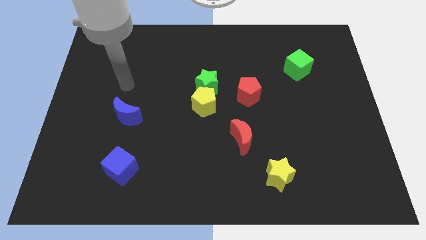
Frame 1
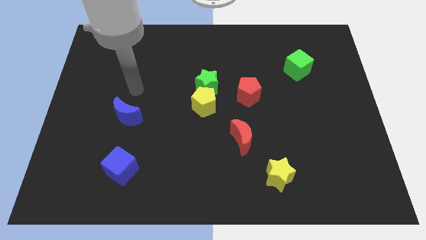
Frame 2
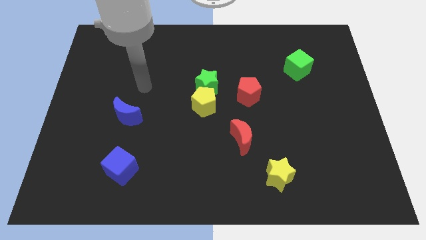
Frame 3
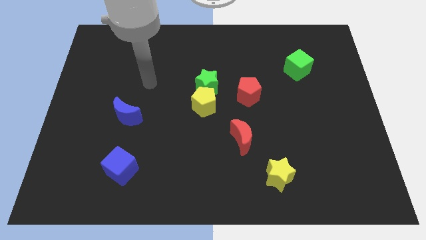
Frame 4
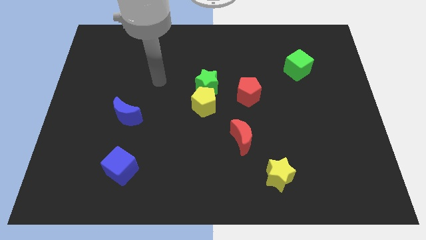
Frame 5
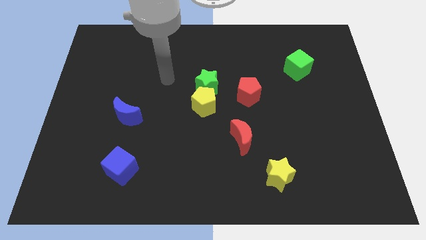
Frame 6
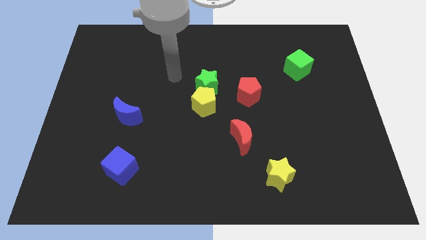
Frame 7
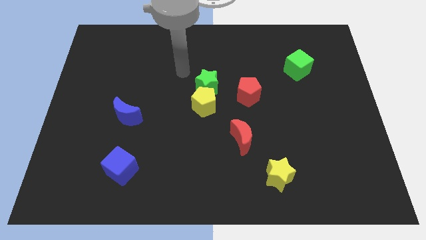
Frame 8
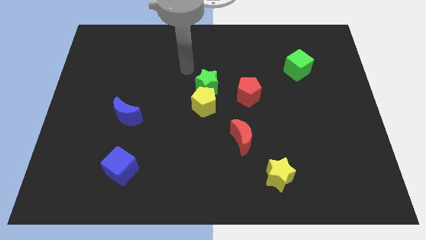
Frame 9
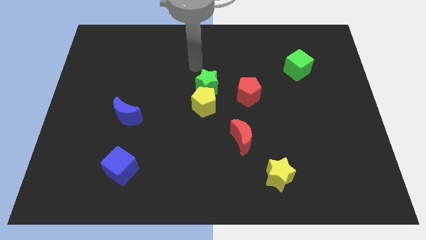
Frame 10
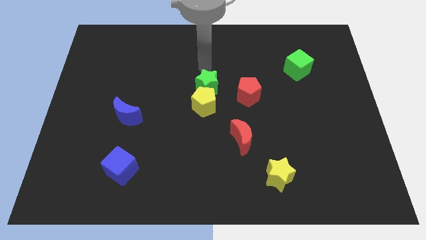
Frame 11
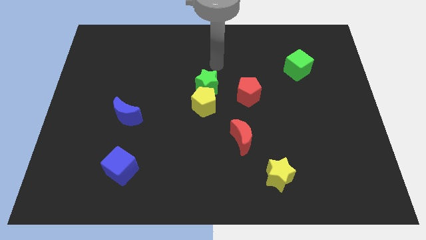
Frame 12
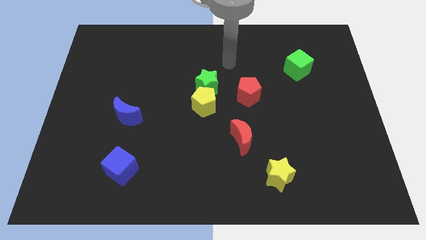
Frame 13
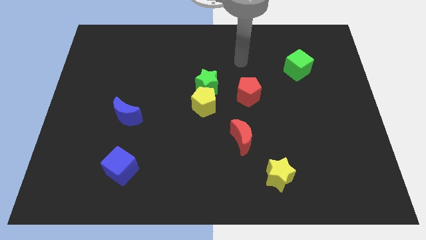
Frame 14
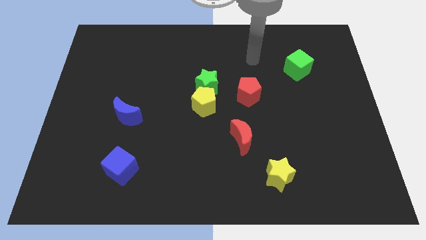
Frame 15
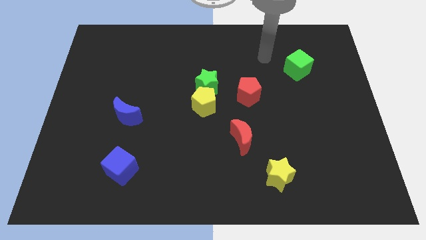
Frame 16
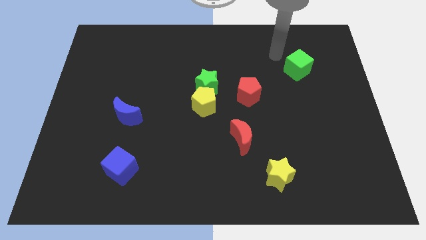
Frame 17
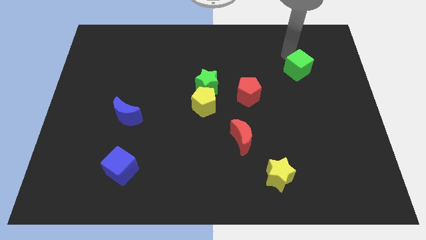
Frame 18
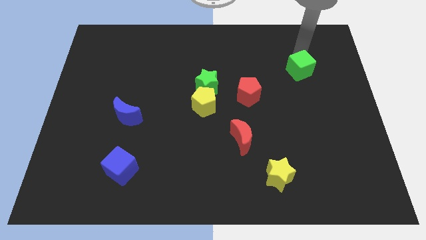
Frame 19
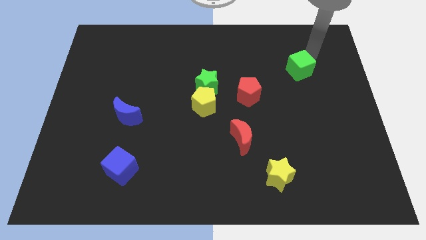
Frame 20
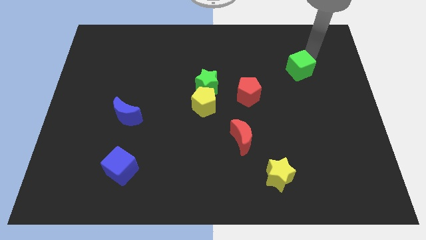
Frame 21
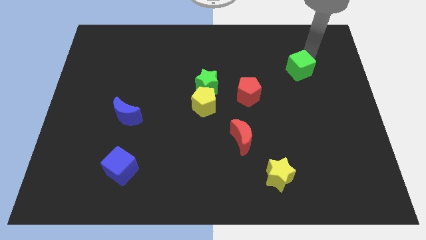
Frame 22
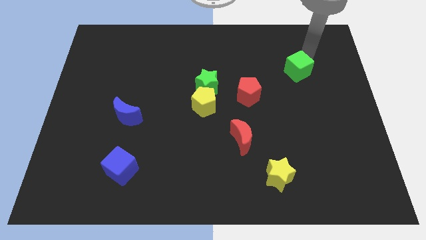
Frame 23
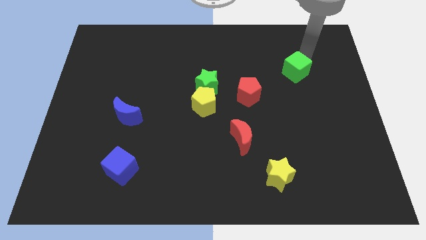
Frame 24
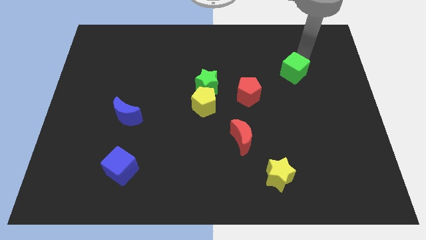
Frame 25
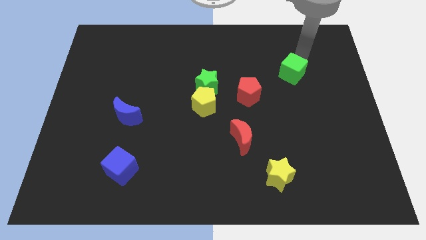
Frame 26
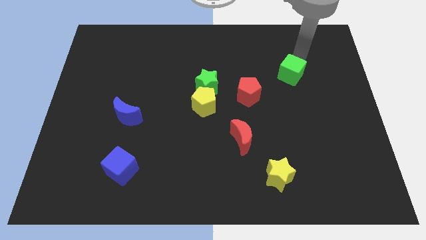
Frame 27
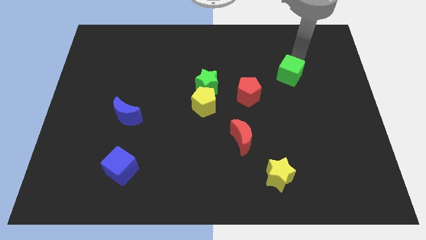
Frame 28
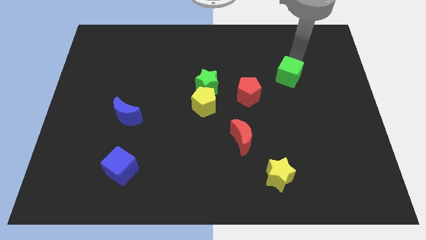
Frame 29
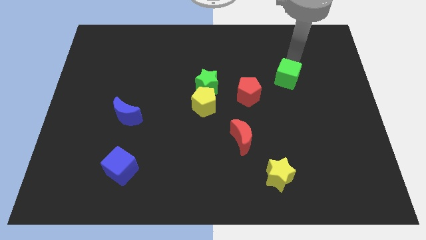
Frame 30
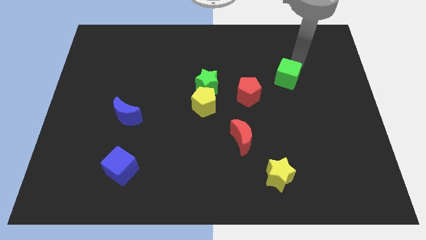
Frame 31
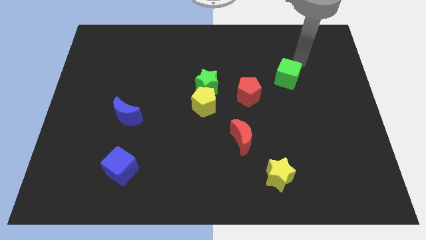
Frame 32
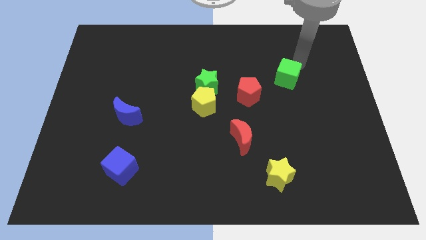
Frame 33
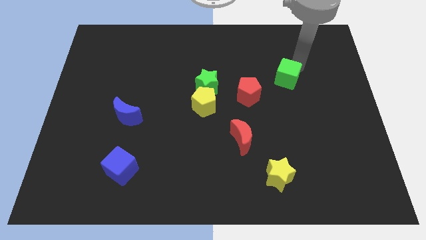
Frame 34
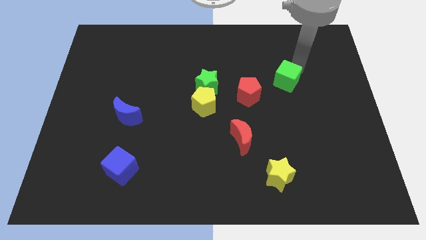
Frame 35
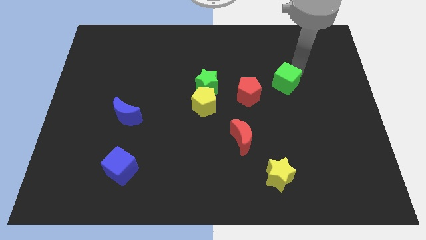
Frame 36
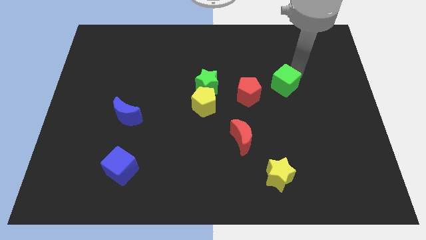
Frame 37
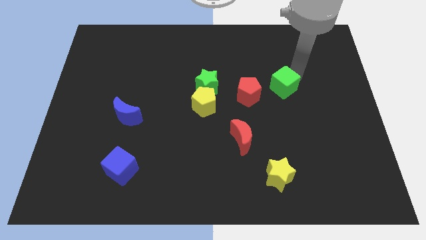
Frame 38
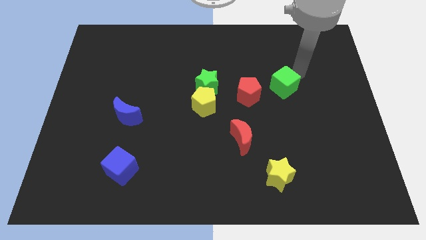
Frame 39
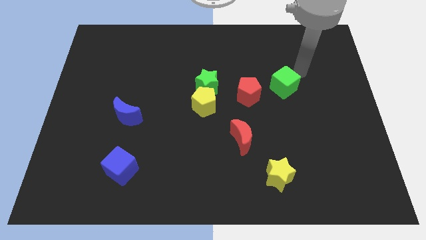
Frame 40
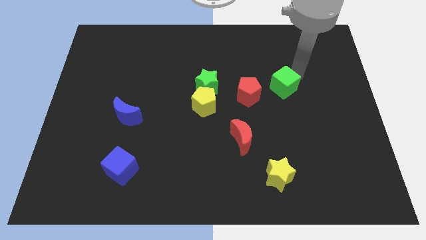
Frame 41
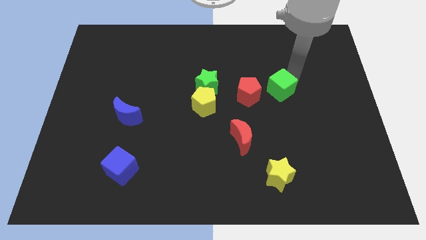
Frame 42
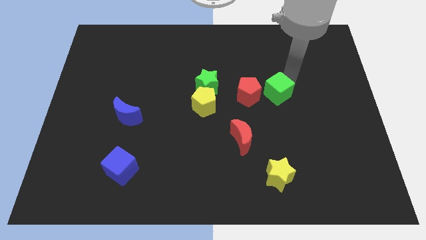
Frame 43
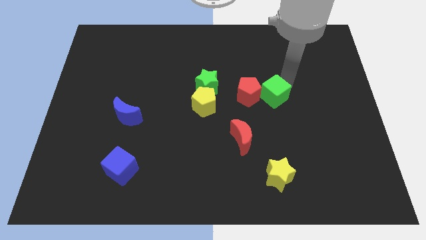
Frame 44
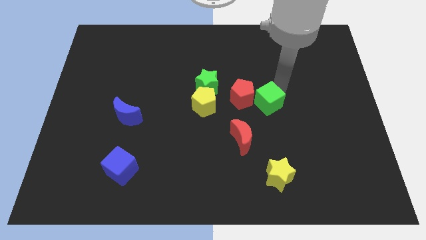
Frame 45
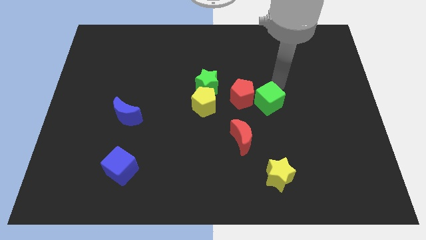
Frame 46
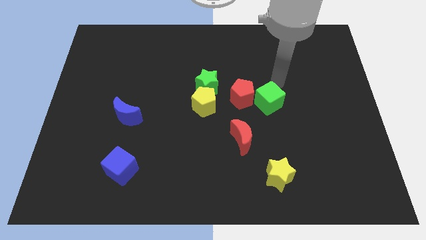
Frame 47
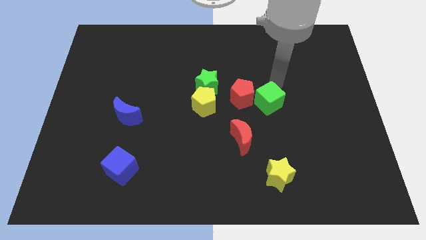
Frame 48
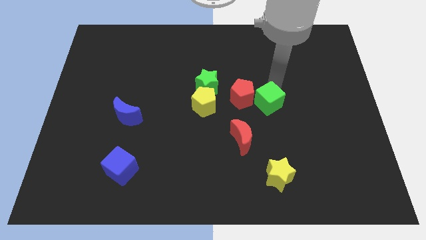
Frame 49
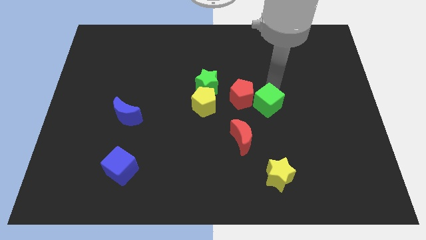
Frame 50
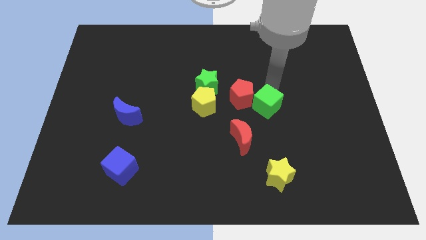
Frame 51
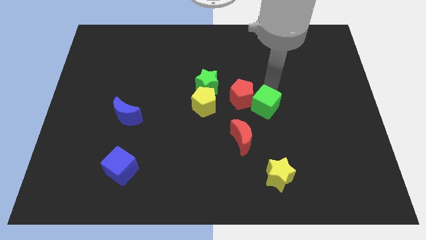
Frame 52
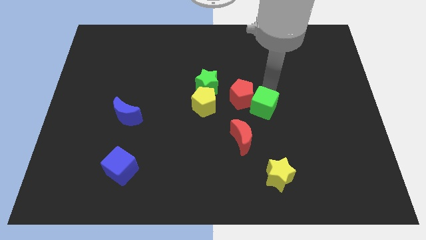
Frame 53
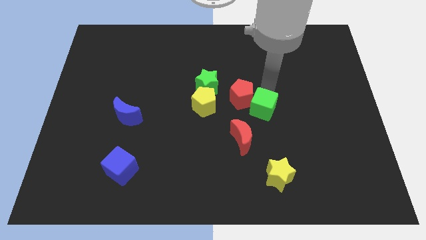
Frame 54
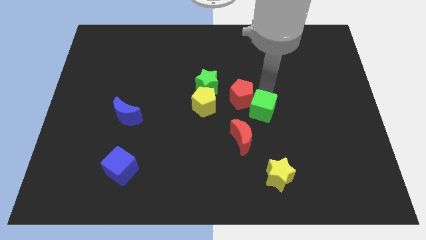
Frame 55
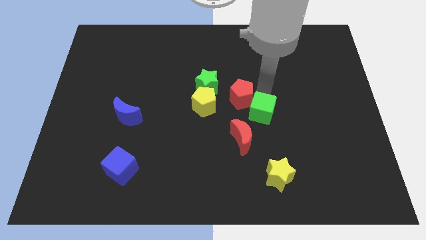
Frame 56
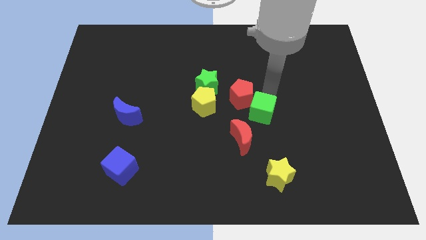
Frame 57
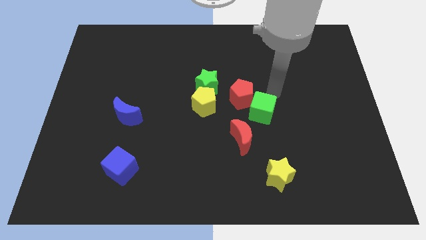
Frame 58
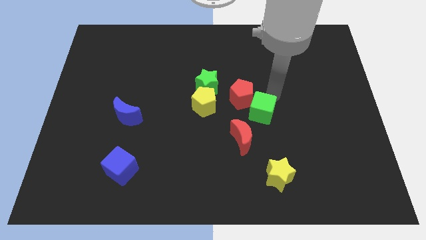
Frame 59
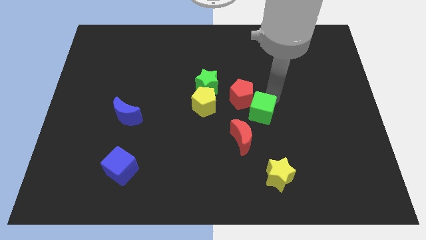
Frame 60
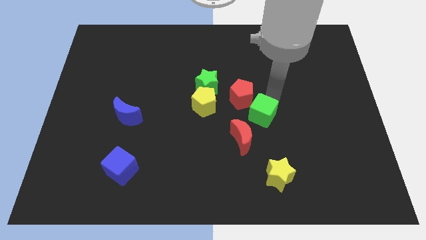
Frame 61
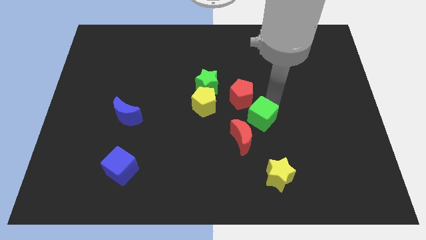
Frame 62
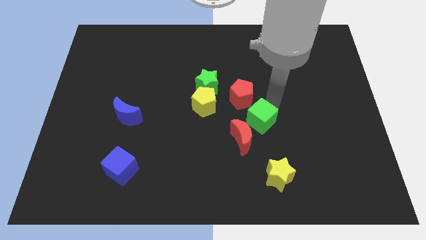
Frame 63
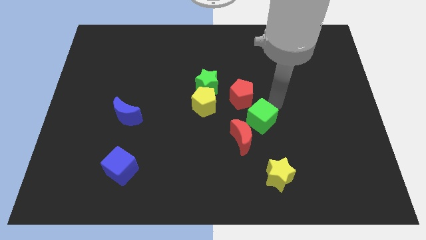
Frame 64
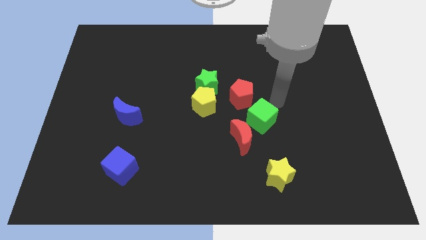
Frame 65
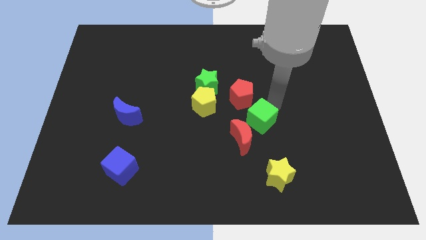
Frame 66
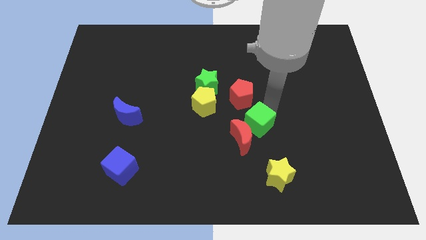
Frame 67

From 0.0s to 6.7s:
put the green cube to the red moon

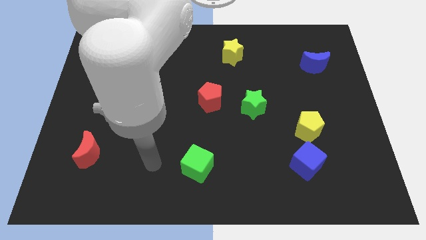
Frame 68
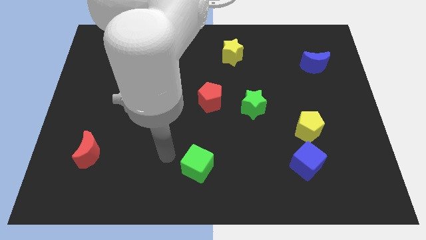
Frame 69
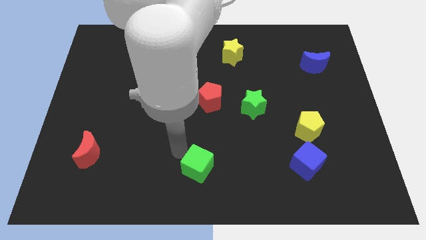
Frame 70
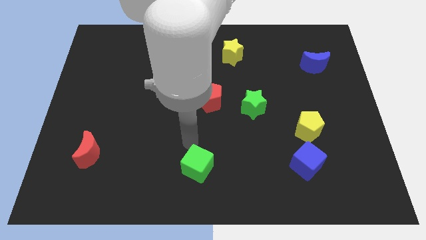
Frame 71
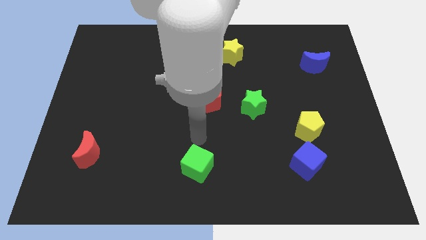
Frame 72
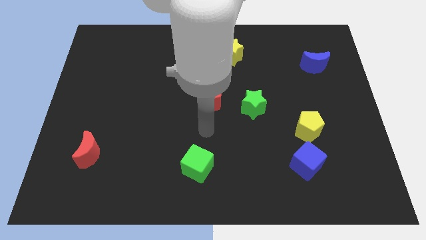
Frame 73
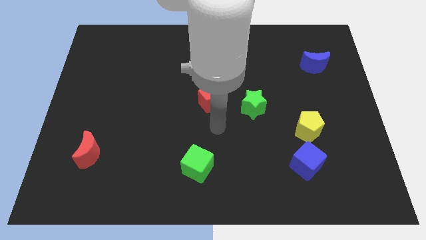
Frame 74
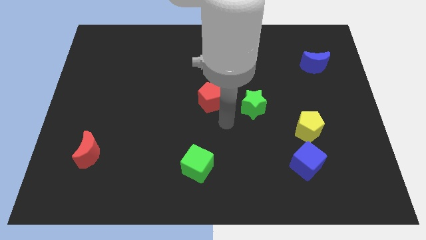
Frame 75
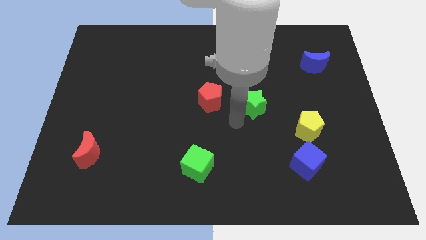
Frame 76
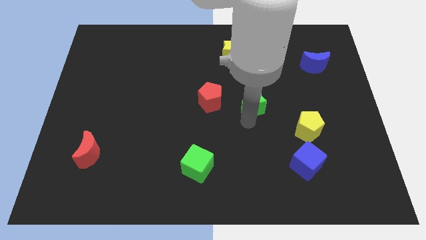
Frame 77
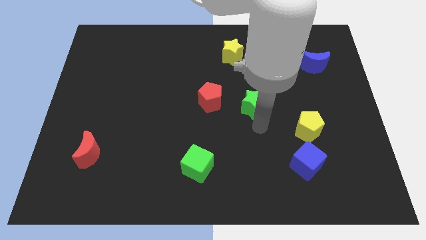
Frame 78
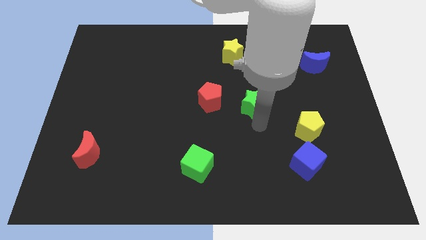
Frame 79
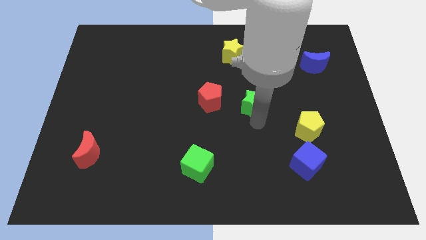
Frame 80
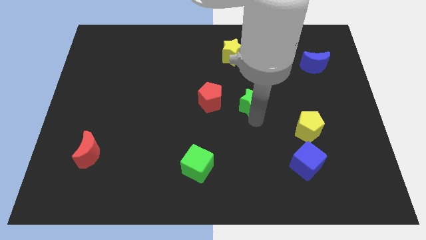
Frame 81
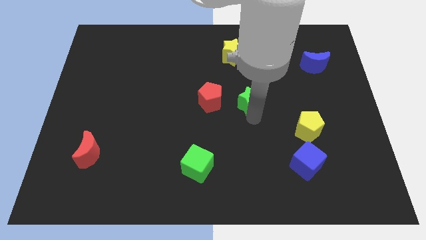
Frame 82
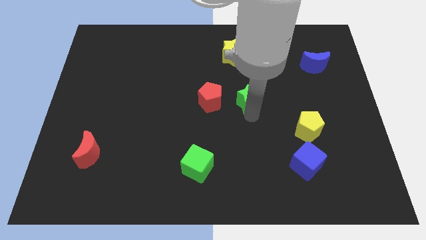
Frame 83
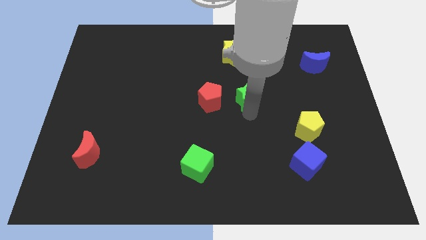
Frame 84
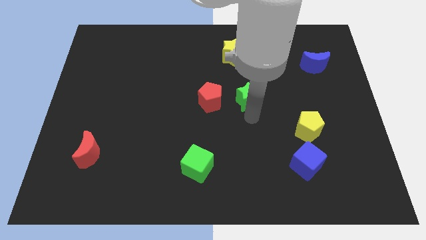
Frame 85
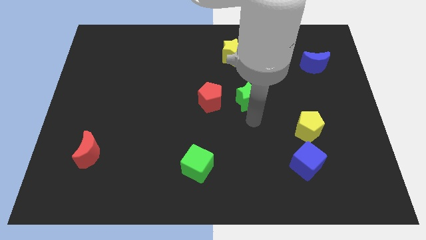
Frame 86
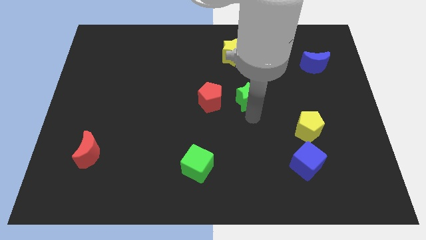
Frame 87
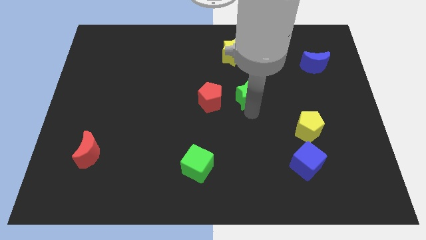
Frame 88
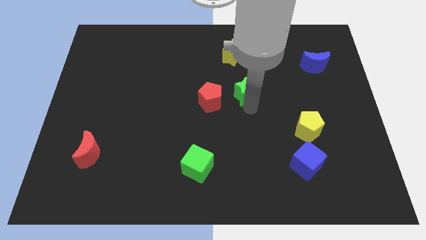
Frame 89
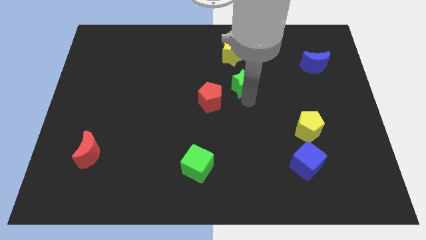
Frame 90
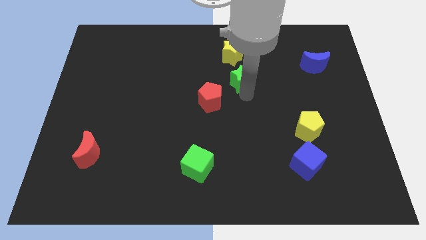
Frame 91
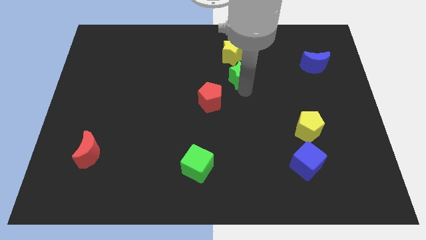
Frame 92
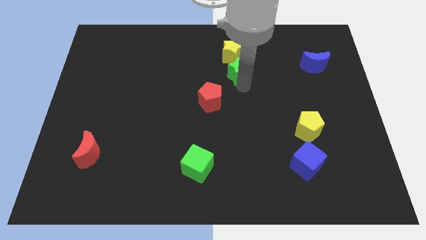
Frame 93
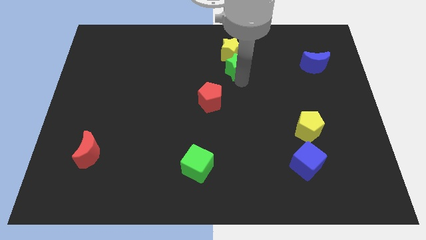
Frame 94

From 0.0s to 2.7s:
move the green star towards the yellow star
